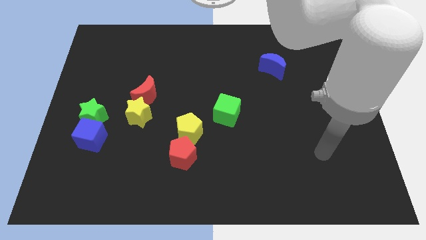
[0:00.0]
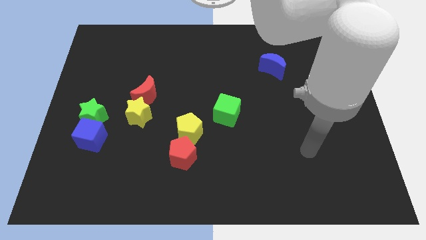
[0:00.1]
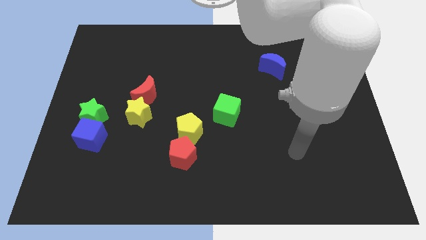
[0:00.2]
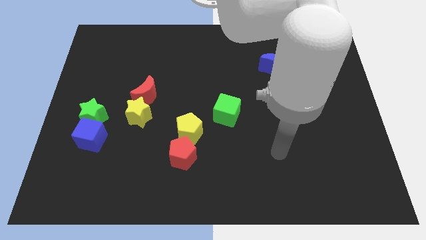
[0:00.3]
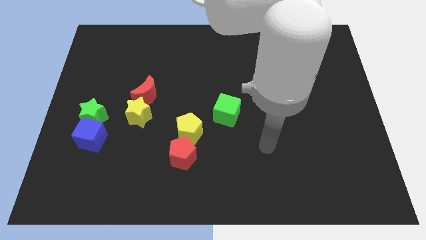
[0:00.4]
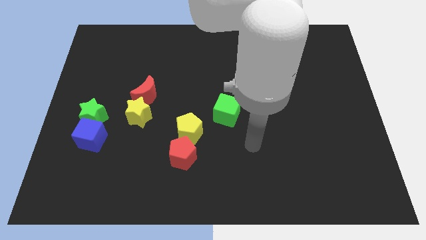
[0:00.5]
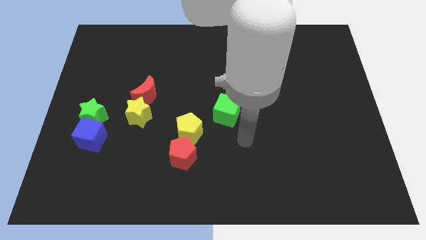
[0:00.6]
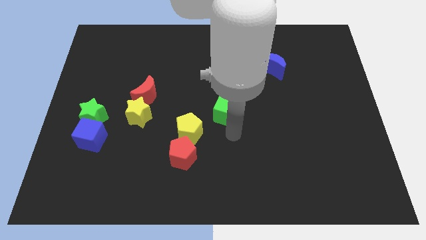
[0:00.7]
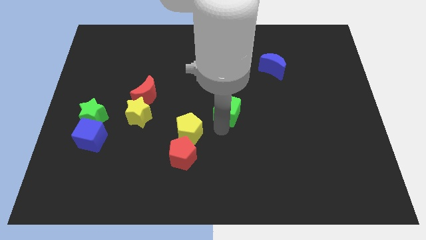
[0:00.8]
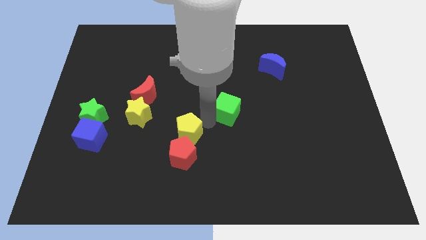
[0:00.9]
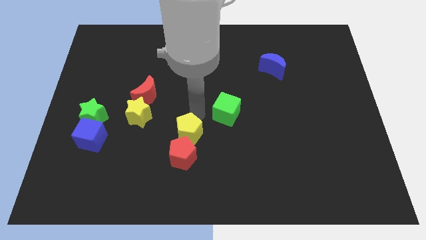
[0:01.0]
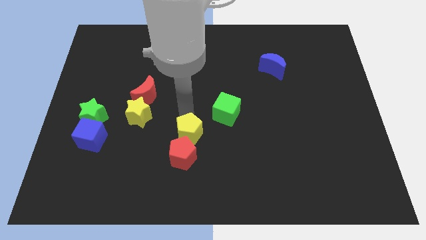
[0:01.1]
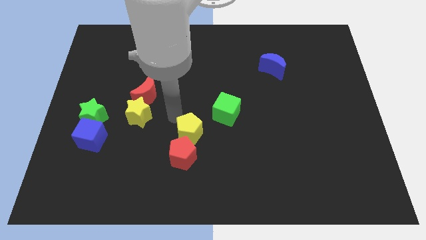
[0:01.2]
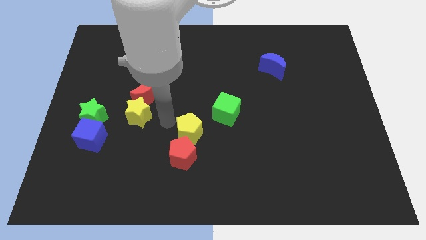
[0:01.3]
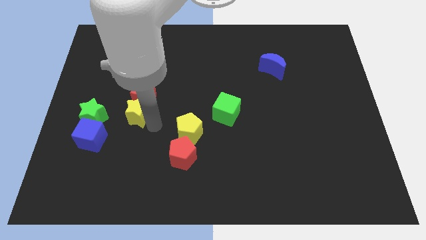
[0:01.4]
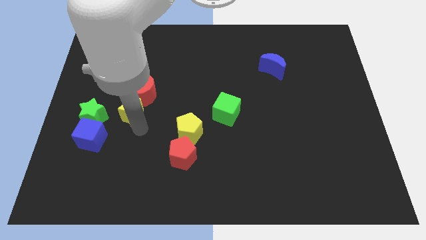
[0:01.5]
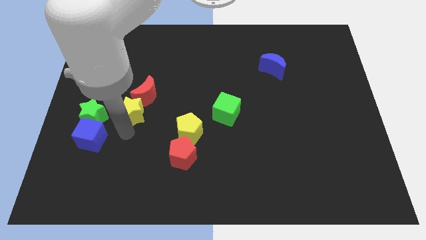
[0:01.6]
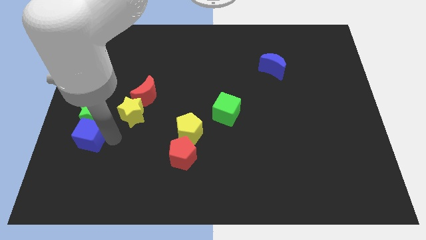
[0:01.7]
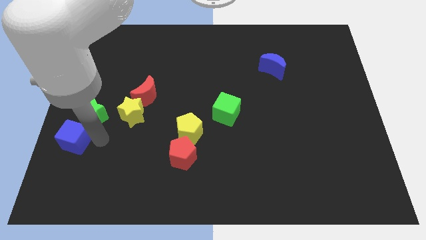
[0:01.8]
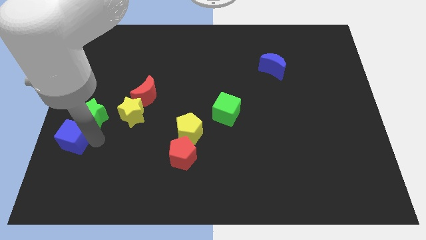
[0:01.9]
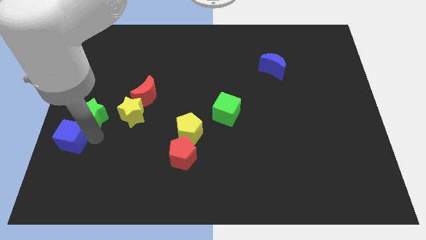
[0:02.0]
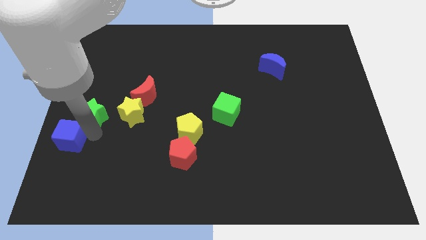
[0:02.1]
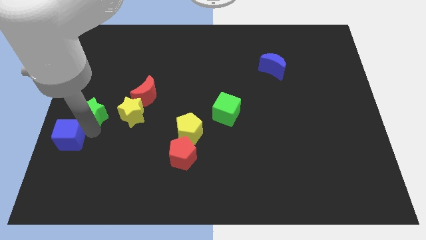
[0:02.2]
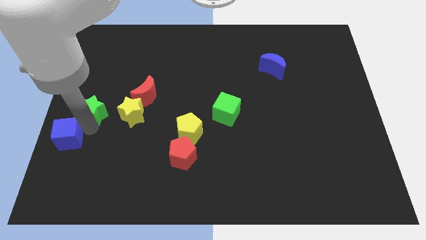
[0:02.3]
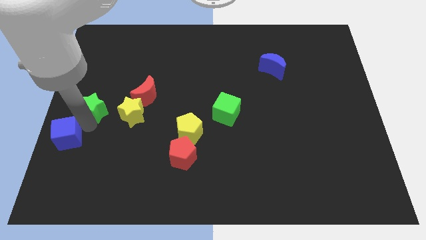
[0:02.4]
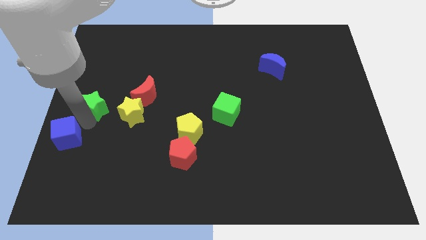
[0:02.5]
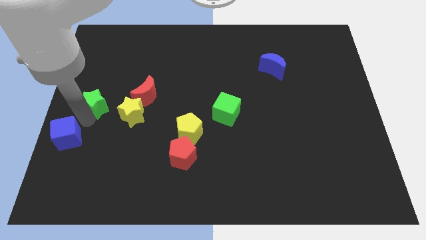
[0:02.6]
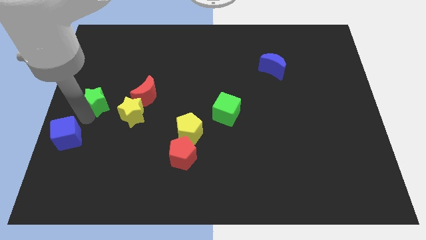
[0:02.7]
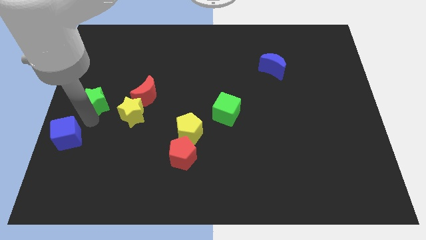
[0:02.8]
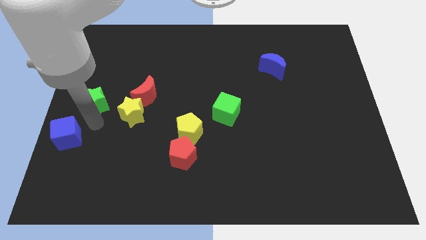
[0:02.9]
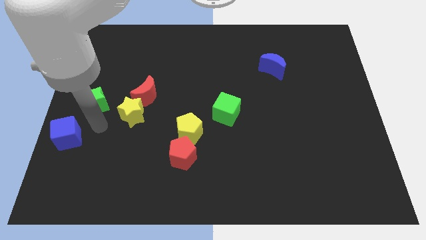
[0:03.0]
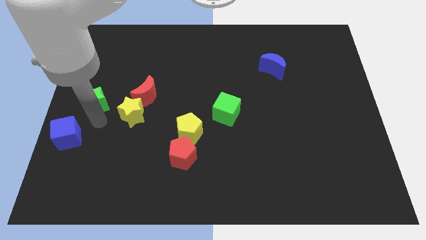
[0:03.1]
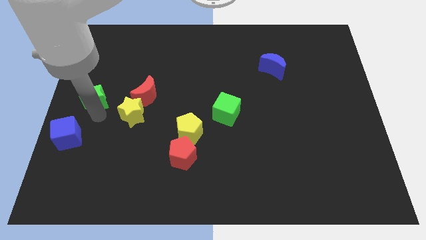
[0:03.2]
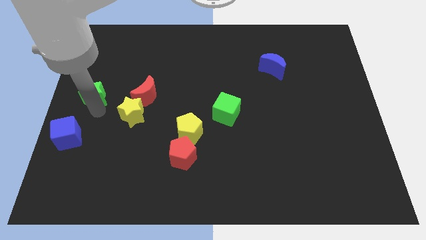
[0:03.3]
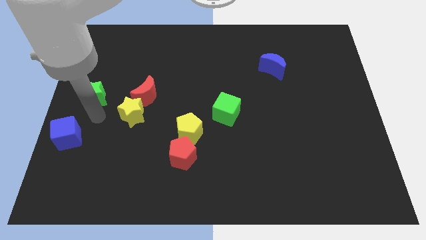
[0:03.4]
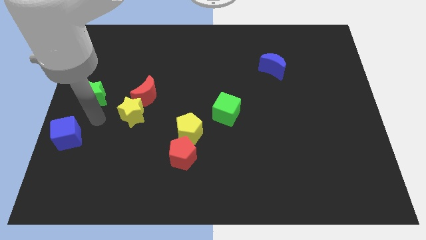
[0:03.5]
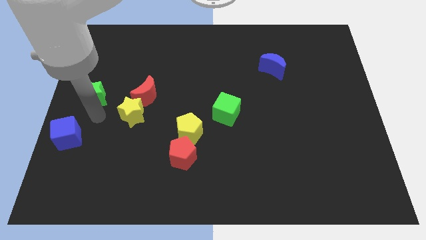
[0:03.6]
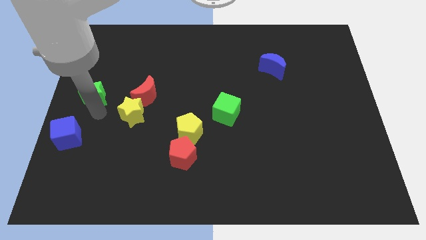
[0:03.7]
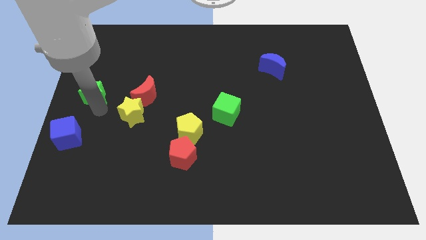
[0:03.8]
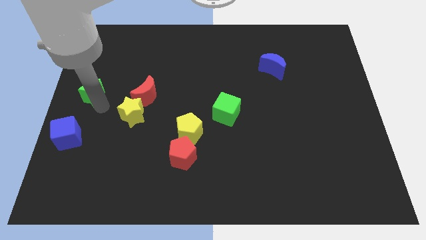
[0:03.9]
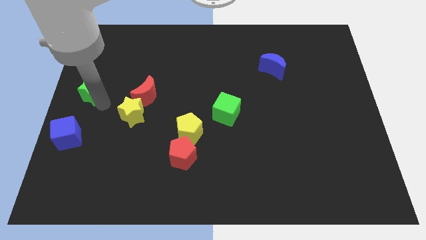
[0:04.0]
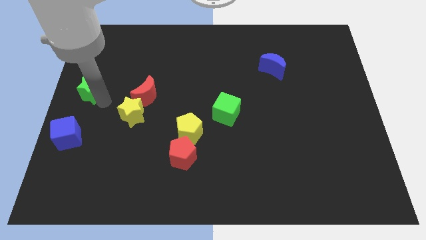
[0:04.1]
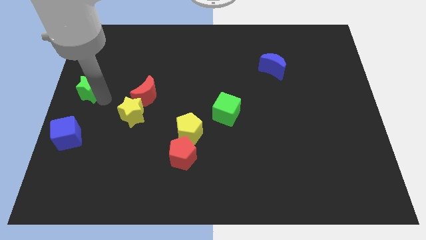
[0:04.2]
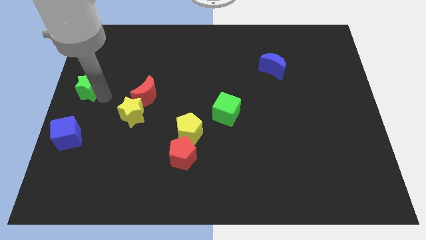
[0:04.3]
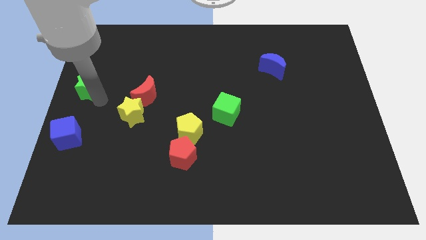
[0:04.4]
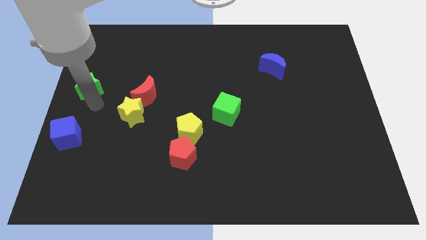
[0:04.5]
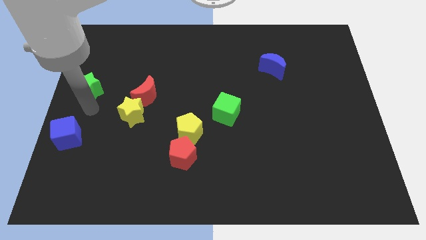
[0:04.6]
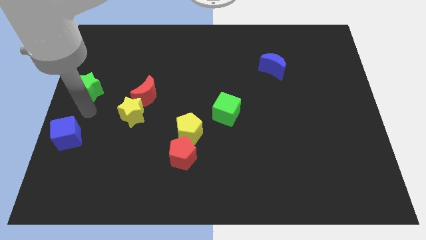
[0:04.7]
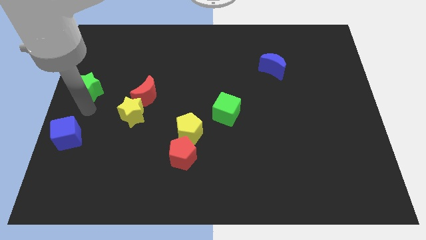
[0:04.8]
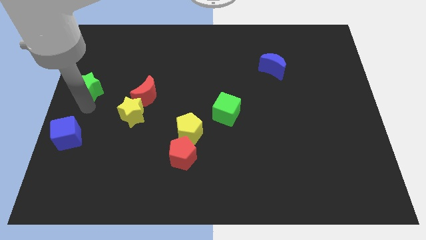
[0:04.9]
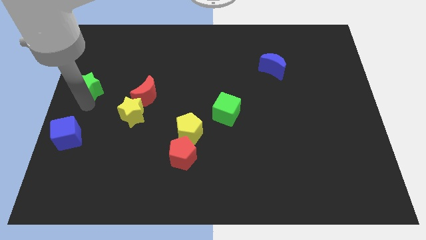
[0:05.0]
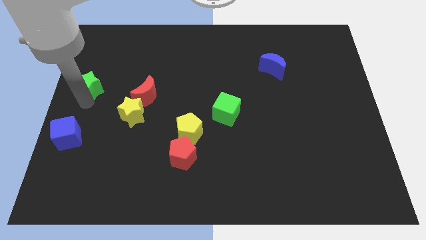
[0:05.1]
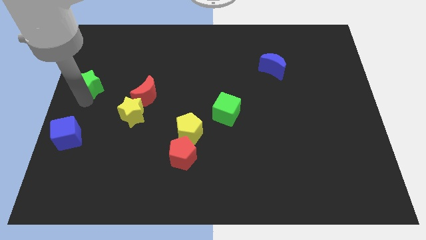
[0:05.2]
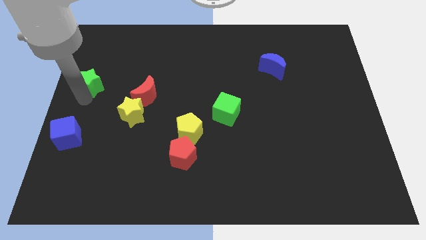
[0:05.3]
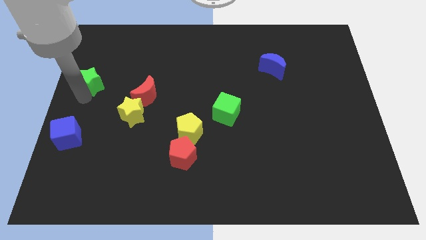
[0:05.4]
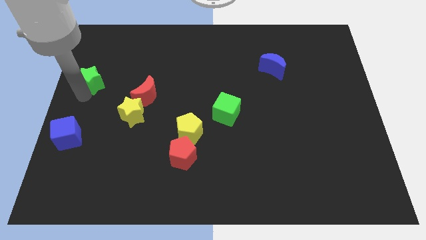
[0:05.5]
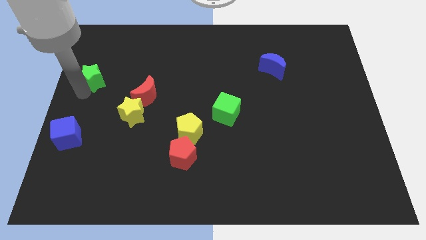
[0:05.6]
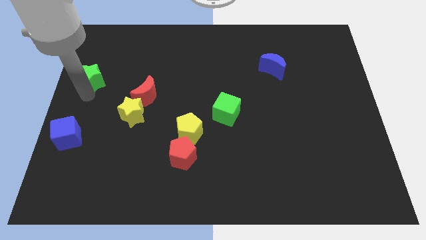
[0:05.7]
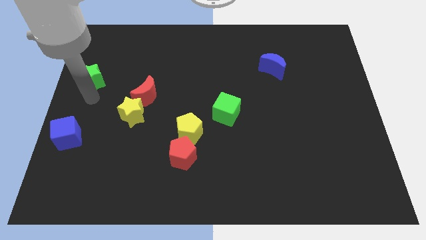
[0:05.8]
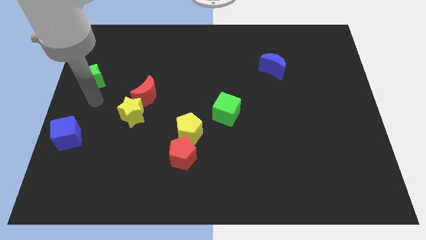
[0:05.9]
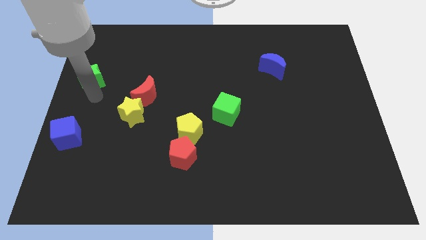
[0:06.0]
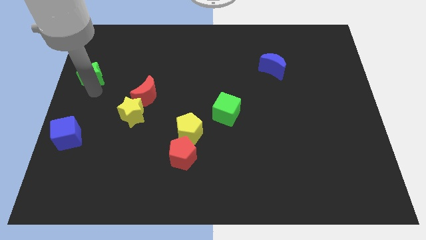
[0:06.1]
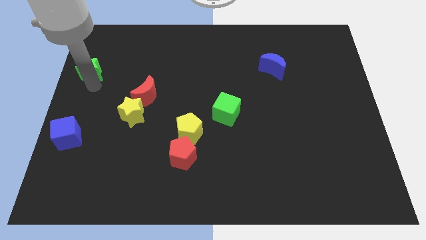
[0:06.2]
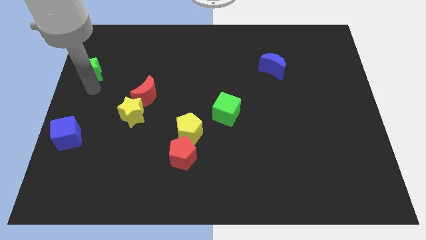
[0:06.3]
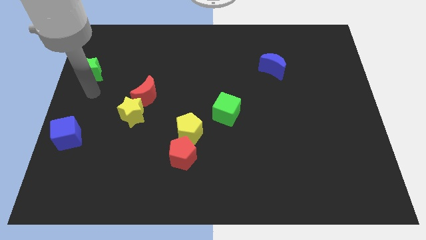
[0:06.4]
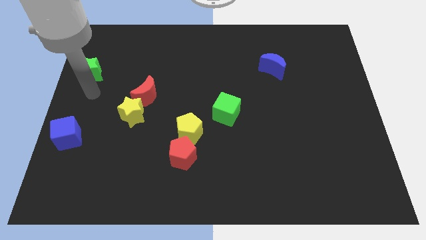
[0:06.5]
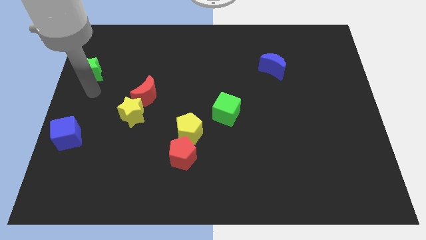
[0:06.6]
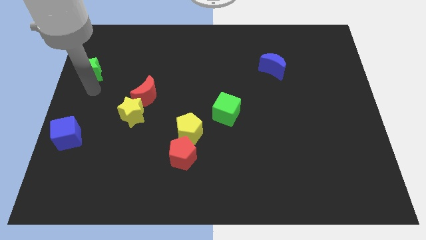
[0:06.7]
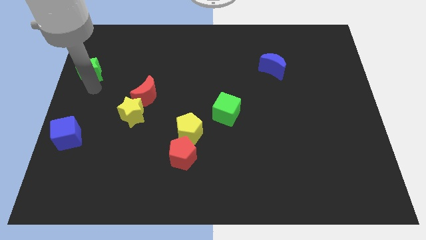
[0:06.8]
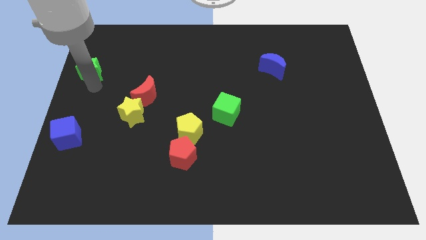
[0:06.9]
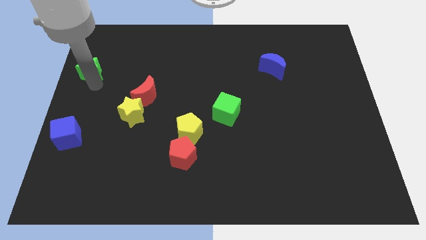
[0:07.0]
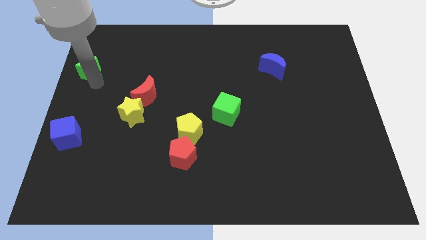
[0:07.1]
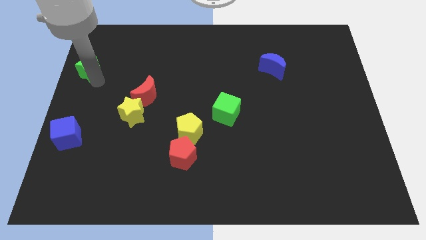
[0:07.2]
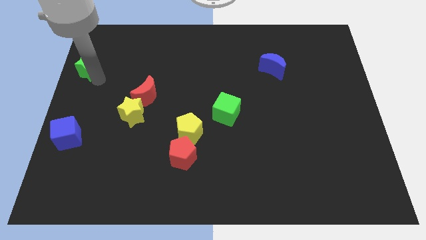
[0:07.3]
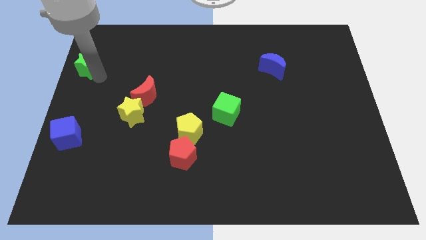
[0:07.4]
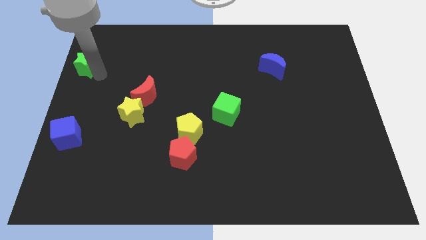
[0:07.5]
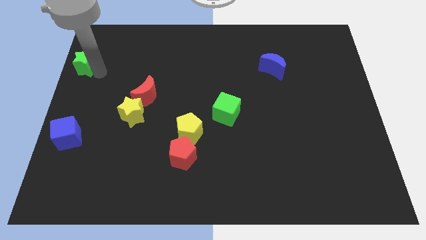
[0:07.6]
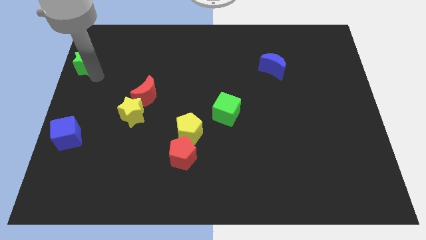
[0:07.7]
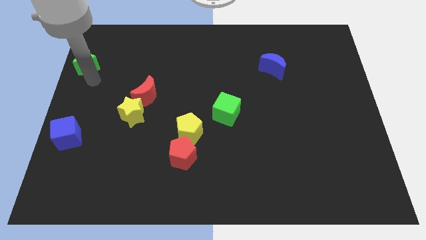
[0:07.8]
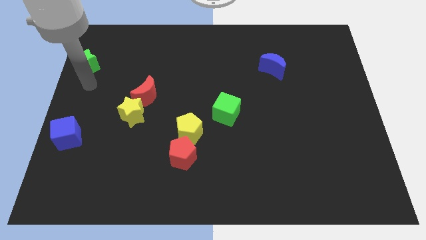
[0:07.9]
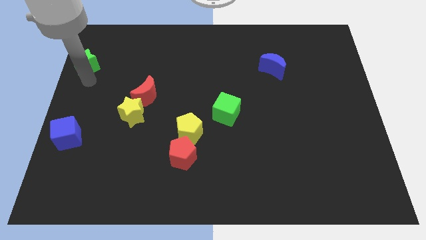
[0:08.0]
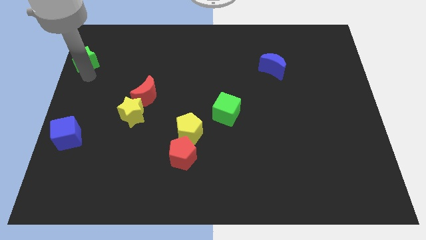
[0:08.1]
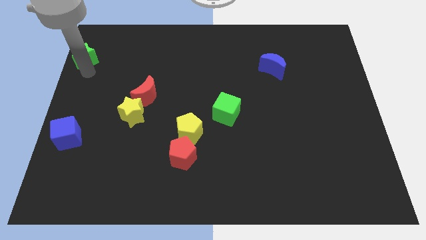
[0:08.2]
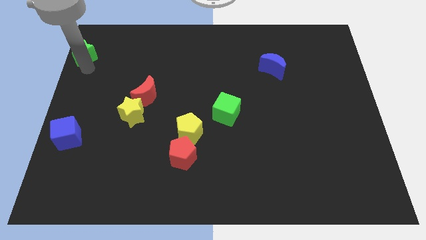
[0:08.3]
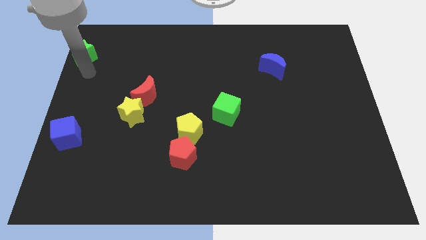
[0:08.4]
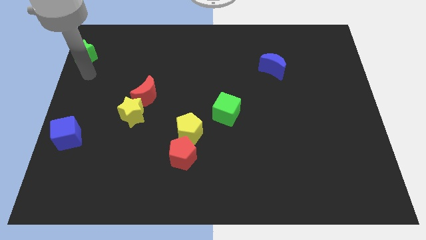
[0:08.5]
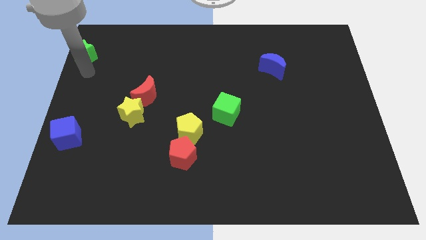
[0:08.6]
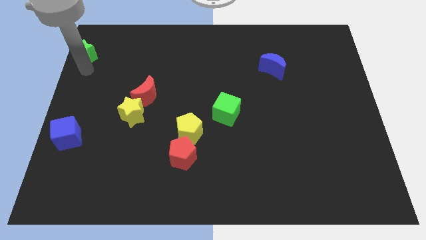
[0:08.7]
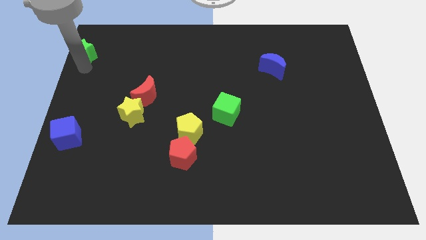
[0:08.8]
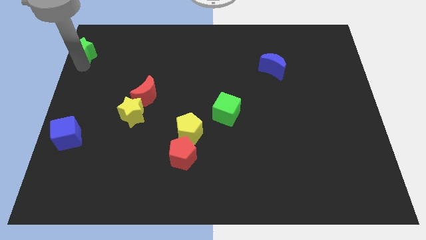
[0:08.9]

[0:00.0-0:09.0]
slide the green star to the upper left corner
